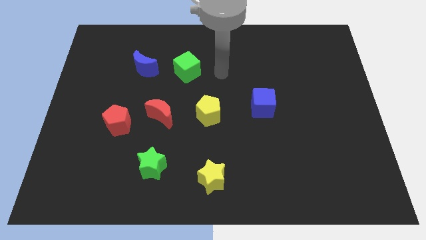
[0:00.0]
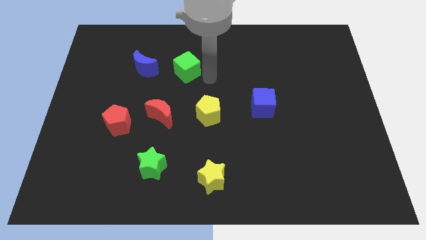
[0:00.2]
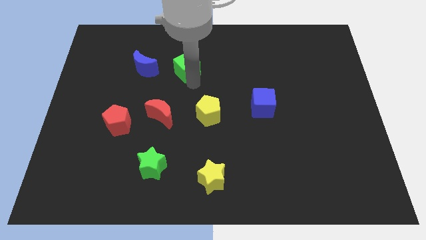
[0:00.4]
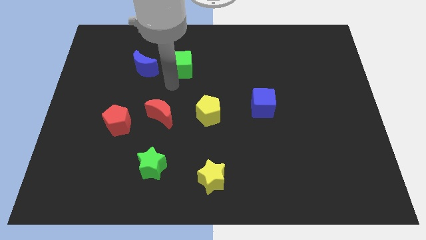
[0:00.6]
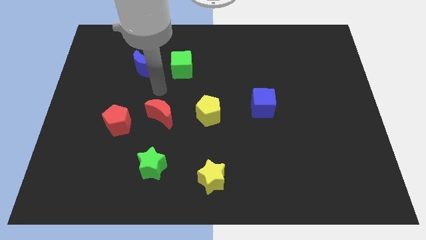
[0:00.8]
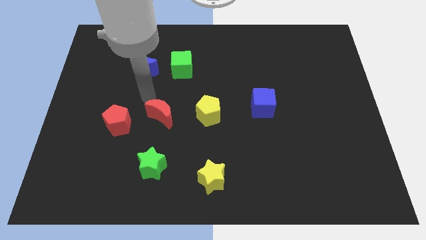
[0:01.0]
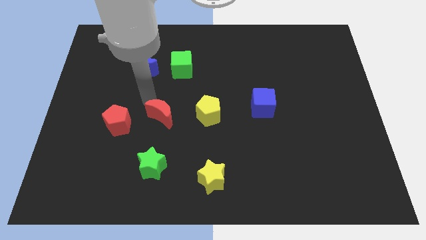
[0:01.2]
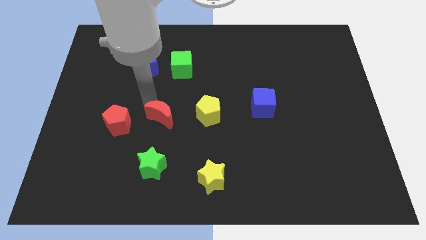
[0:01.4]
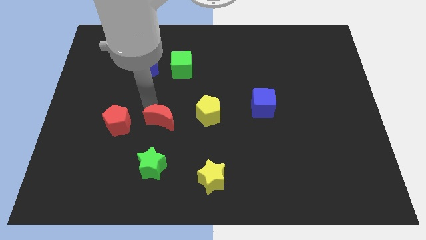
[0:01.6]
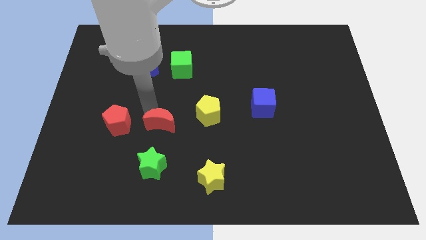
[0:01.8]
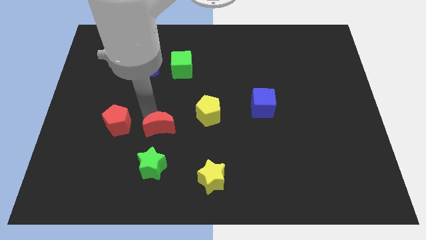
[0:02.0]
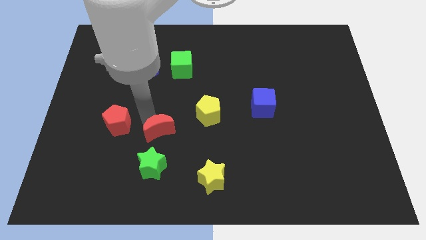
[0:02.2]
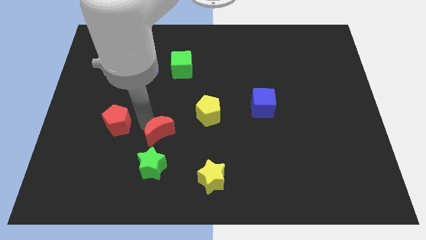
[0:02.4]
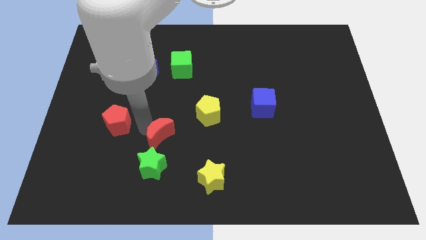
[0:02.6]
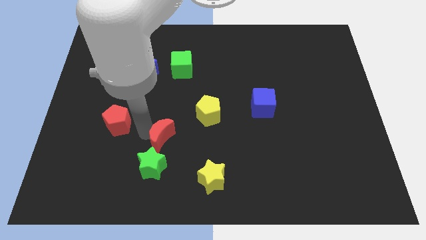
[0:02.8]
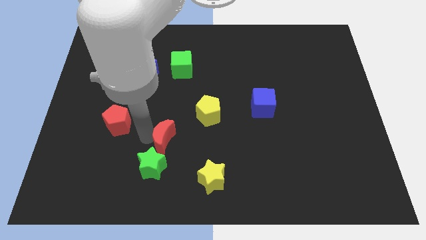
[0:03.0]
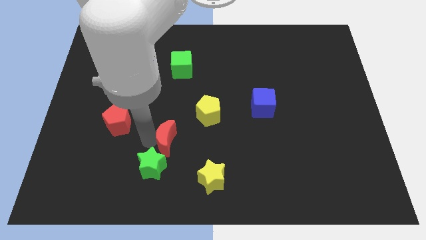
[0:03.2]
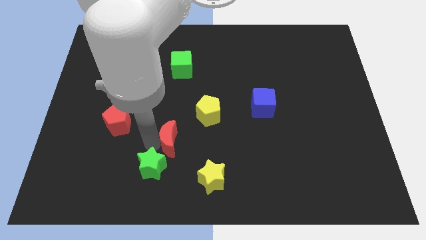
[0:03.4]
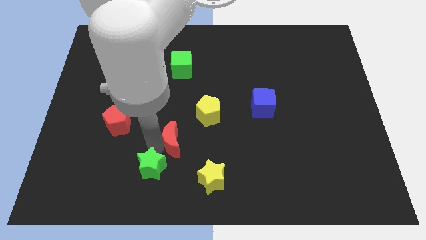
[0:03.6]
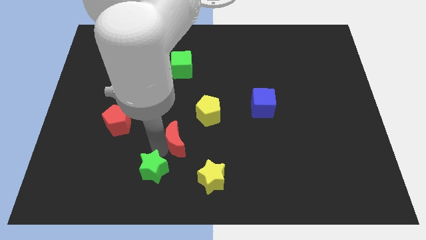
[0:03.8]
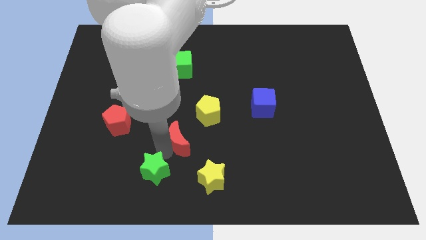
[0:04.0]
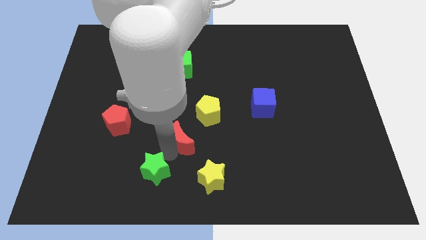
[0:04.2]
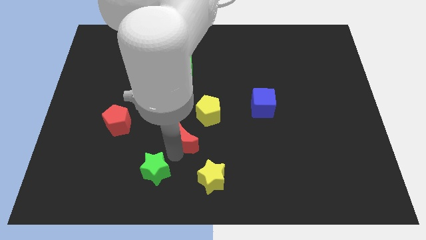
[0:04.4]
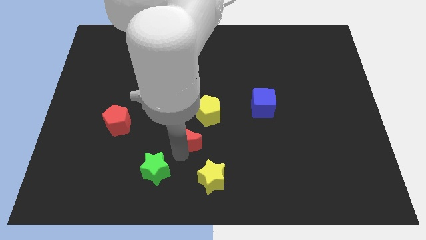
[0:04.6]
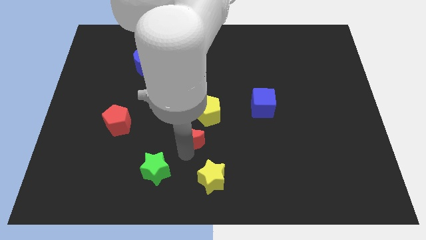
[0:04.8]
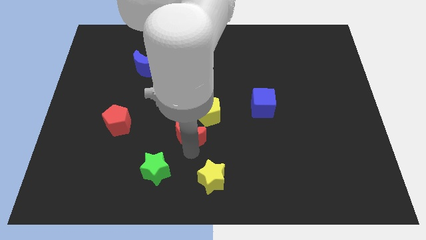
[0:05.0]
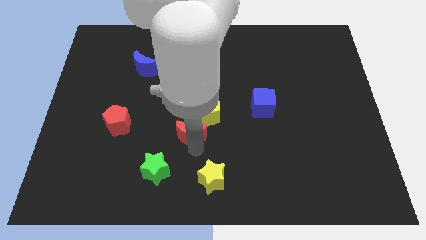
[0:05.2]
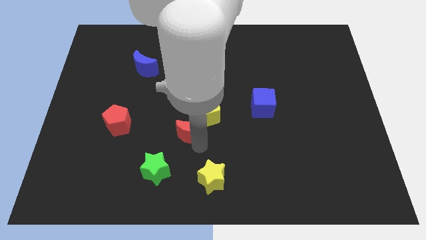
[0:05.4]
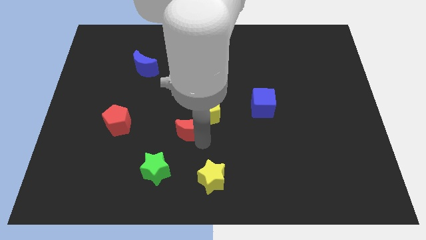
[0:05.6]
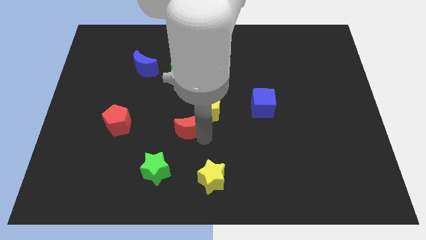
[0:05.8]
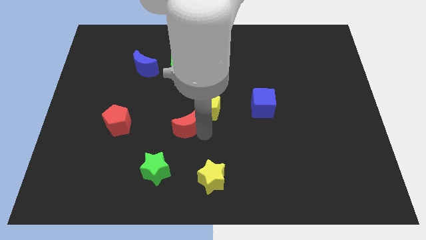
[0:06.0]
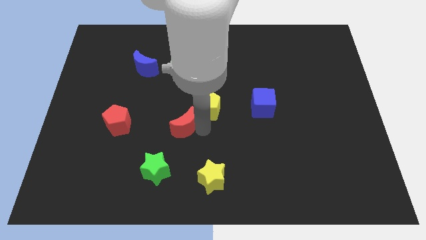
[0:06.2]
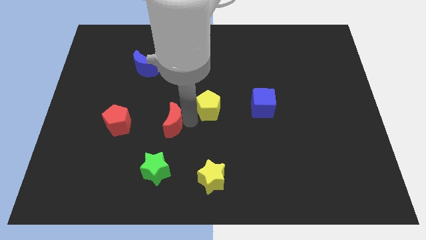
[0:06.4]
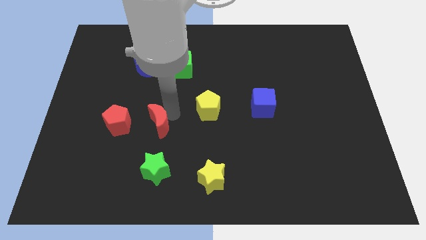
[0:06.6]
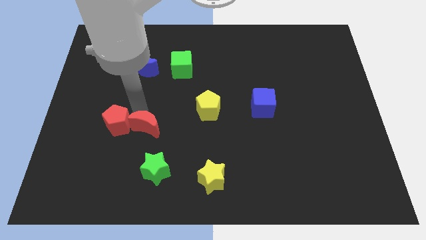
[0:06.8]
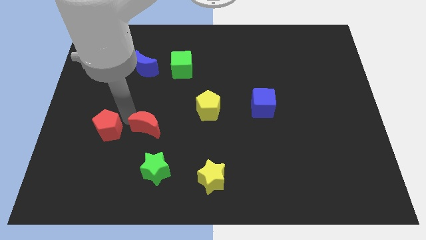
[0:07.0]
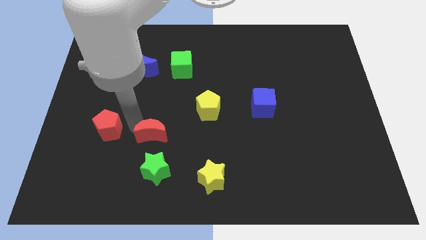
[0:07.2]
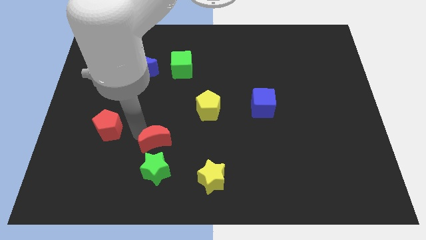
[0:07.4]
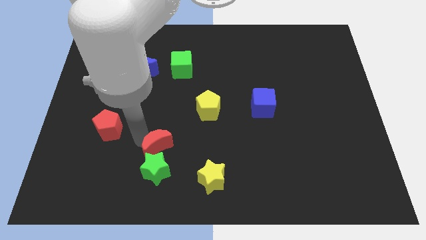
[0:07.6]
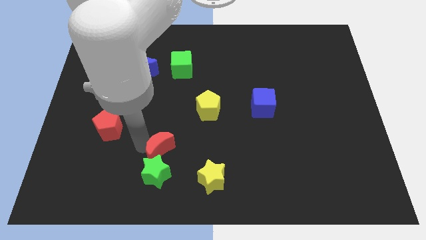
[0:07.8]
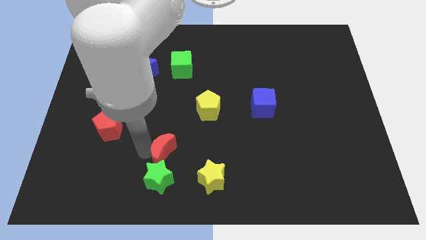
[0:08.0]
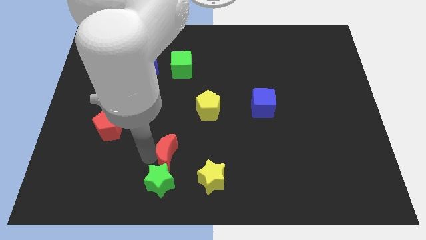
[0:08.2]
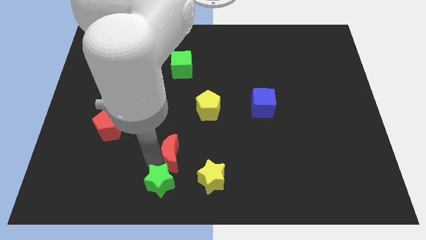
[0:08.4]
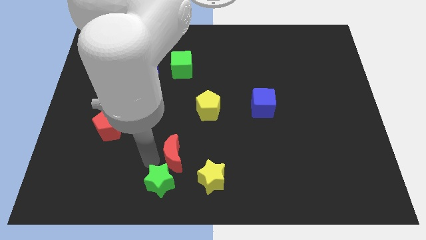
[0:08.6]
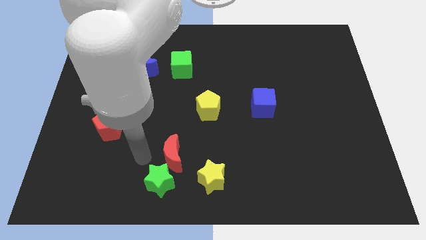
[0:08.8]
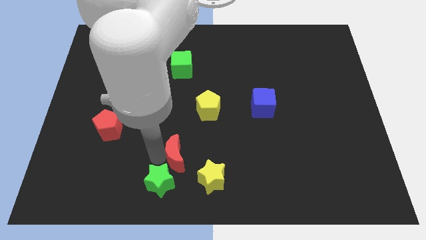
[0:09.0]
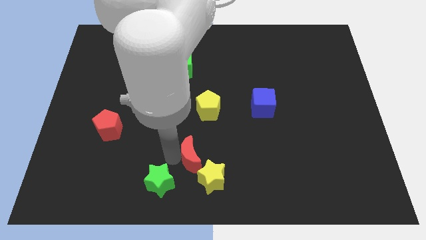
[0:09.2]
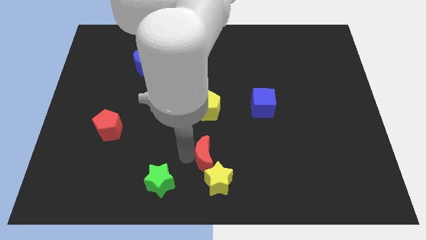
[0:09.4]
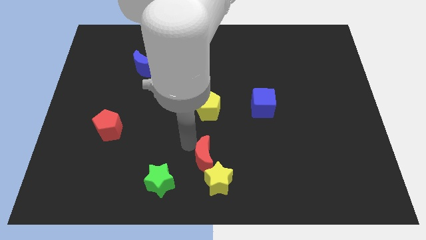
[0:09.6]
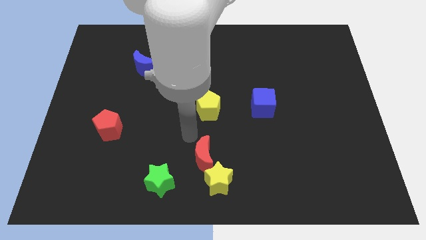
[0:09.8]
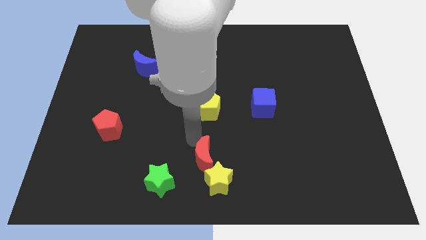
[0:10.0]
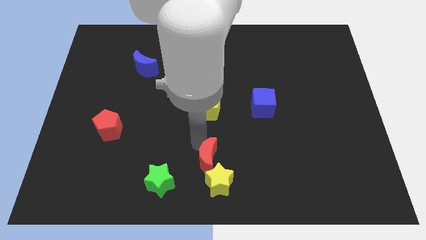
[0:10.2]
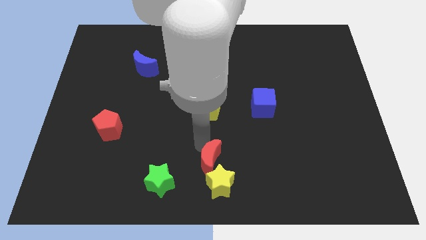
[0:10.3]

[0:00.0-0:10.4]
slide the red moon next to the yellow star

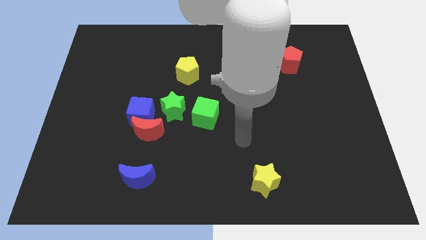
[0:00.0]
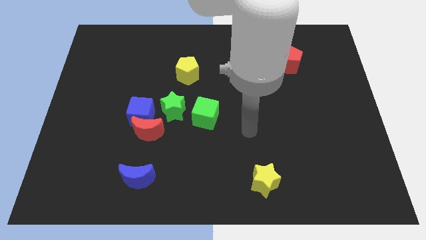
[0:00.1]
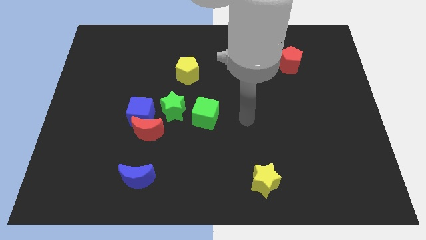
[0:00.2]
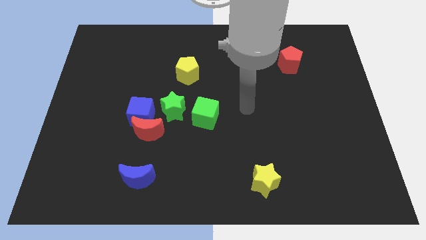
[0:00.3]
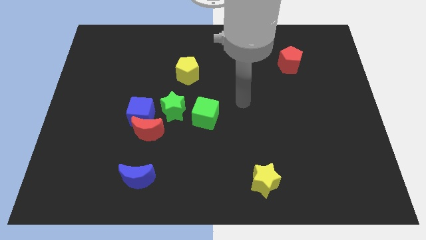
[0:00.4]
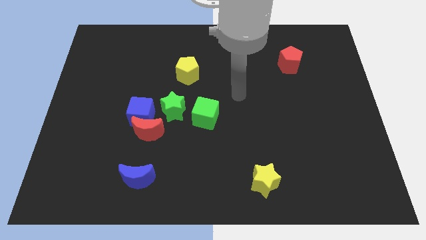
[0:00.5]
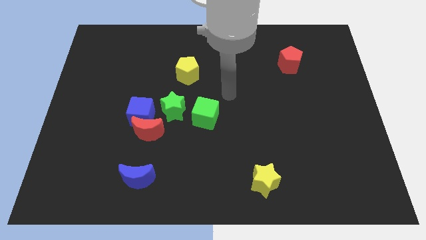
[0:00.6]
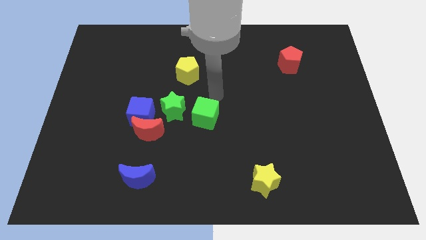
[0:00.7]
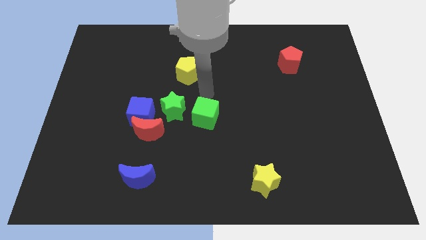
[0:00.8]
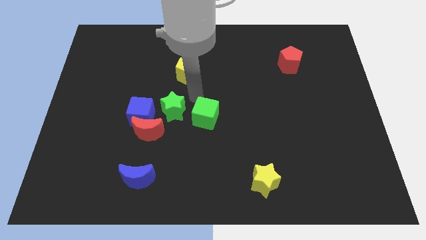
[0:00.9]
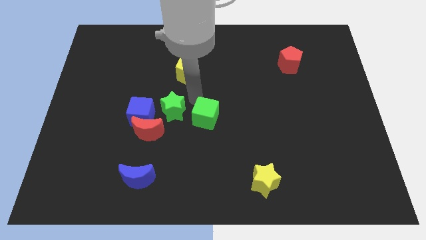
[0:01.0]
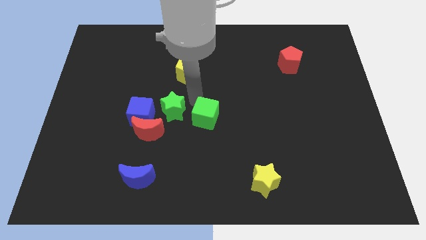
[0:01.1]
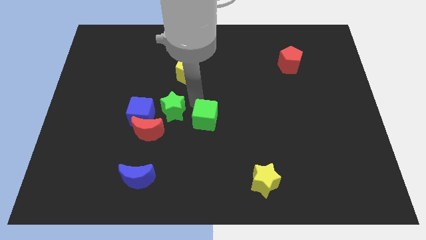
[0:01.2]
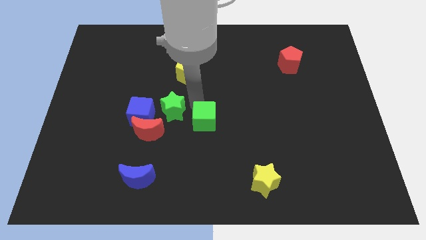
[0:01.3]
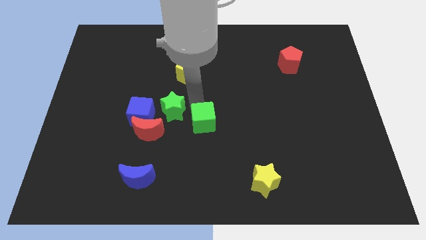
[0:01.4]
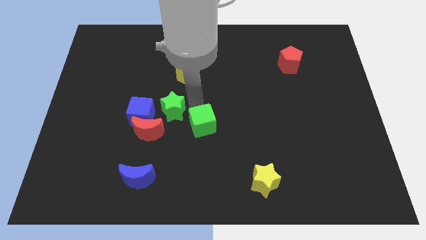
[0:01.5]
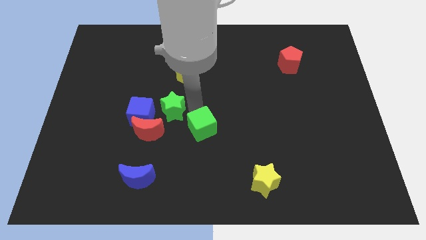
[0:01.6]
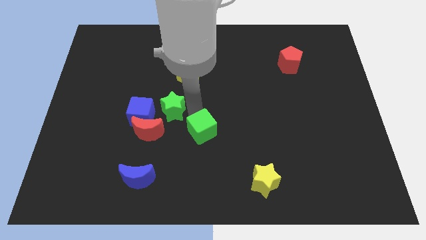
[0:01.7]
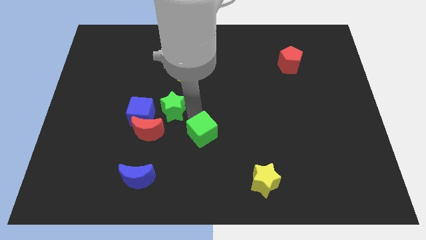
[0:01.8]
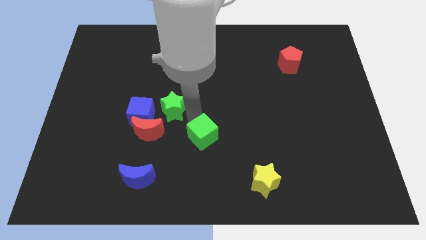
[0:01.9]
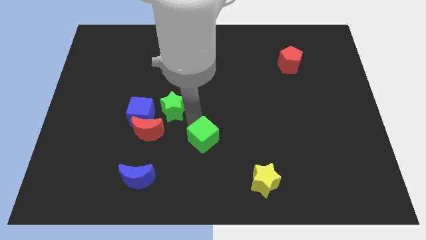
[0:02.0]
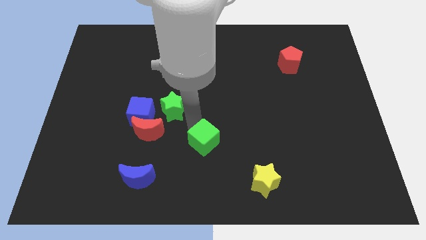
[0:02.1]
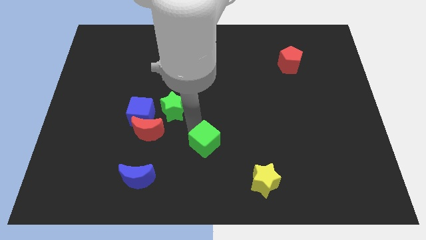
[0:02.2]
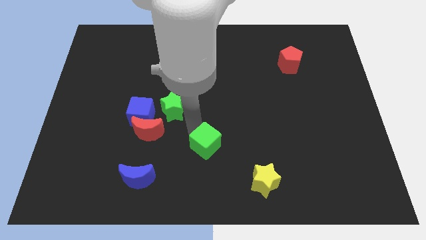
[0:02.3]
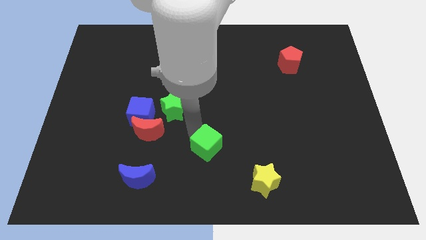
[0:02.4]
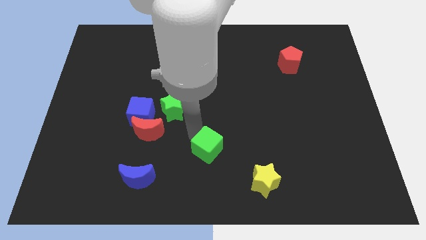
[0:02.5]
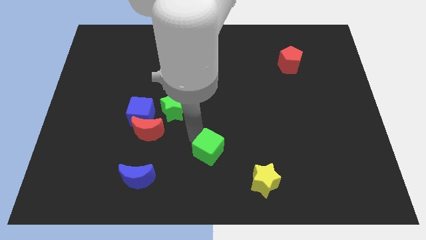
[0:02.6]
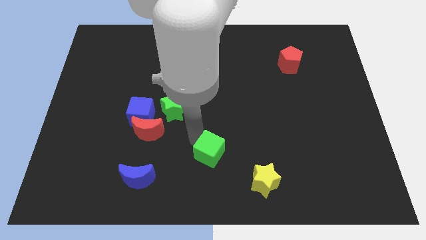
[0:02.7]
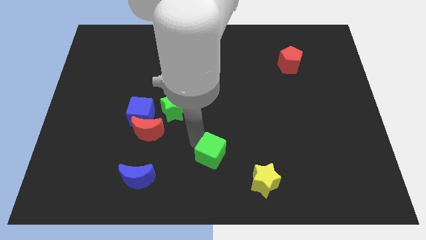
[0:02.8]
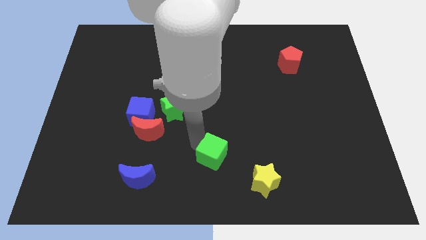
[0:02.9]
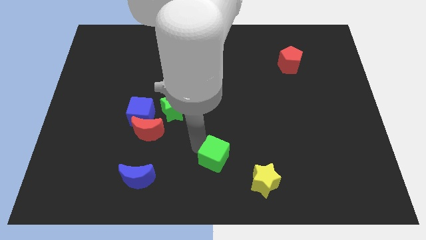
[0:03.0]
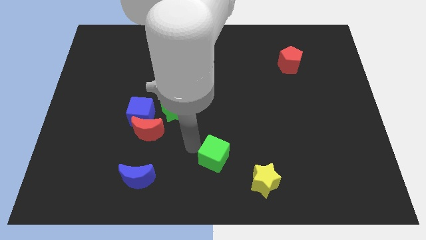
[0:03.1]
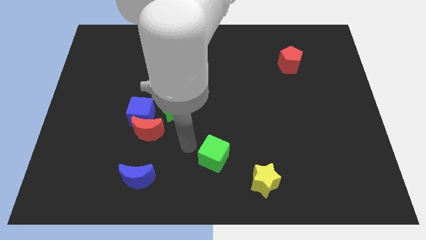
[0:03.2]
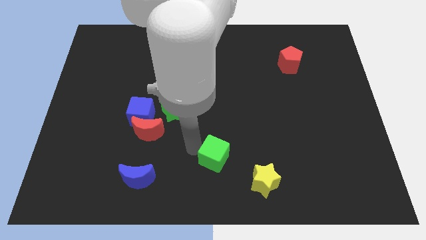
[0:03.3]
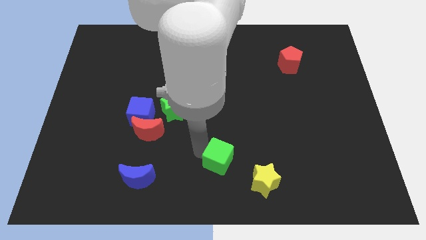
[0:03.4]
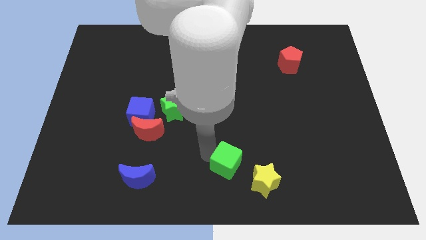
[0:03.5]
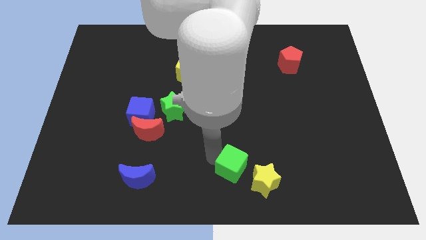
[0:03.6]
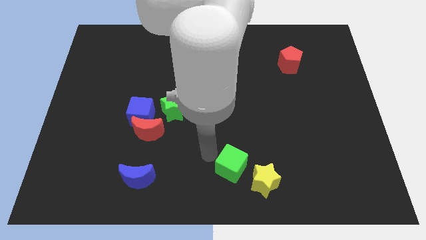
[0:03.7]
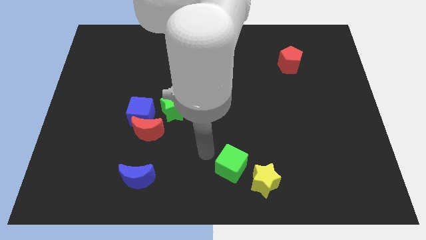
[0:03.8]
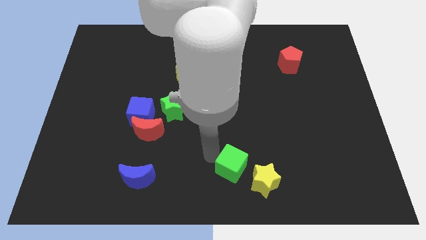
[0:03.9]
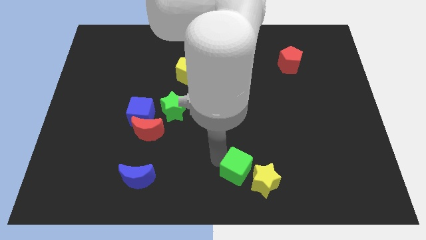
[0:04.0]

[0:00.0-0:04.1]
slide the green cube close to the yellow star
